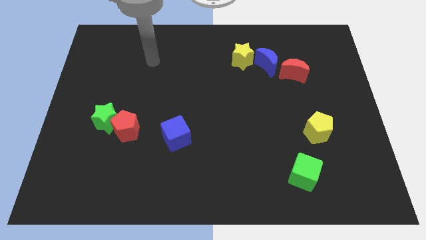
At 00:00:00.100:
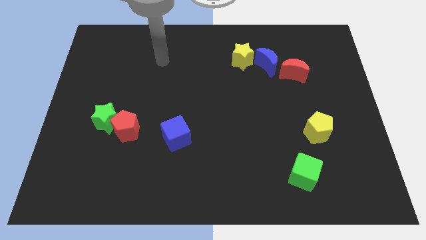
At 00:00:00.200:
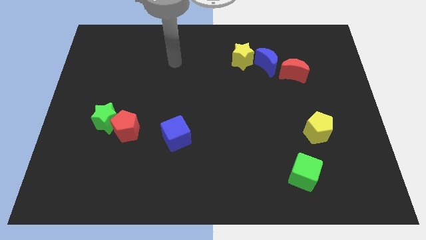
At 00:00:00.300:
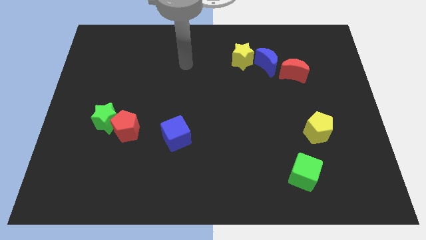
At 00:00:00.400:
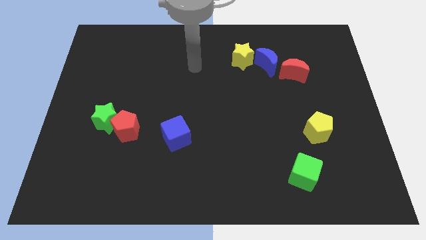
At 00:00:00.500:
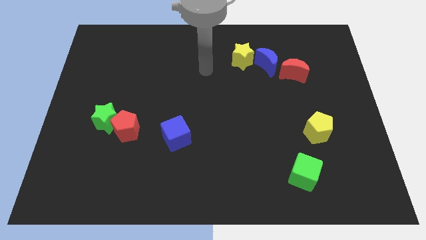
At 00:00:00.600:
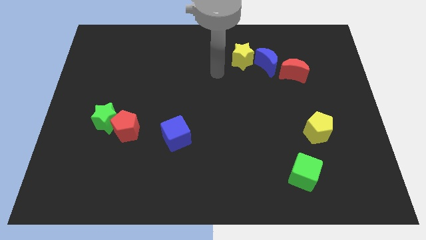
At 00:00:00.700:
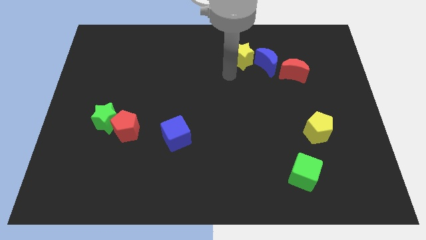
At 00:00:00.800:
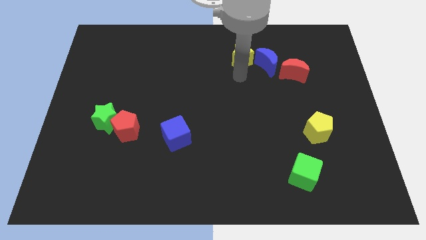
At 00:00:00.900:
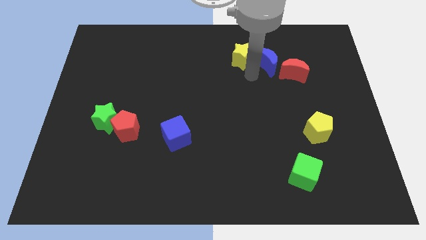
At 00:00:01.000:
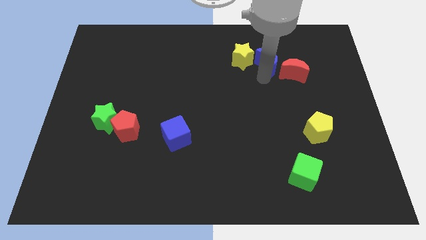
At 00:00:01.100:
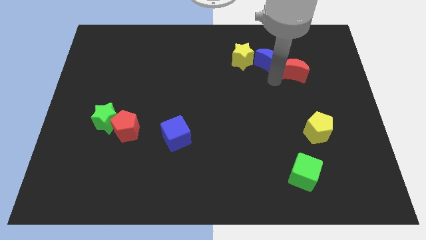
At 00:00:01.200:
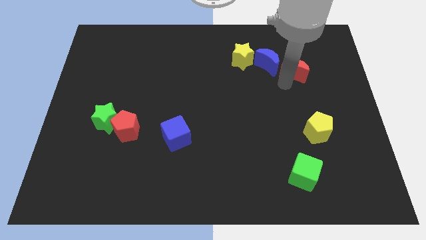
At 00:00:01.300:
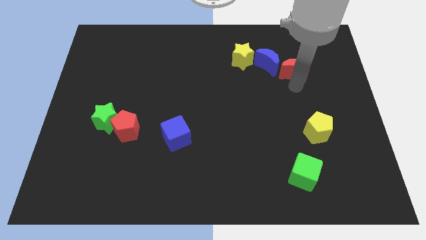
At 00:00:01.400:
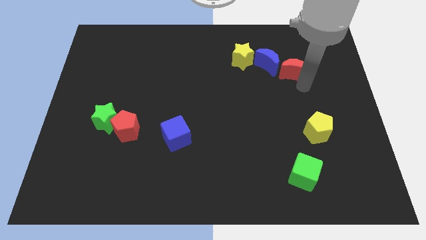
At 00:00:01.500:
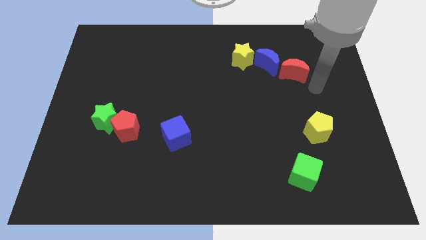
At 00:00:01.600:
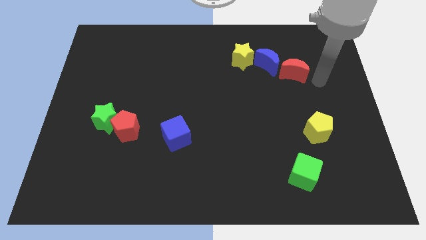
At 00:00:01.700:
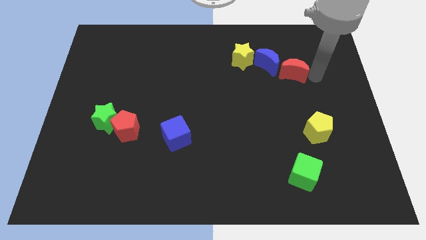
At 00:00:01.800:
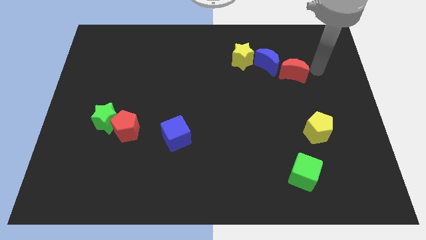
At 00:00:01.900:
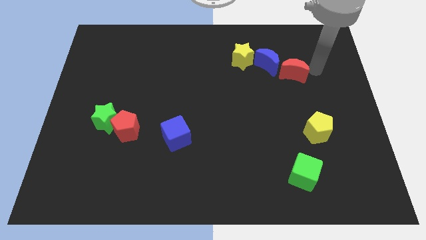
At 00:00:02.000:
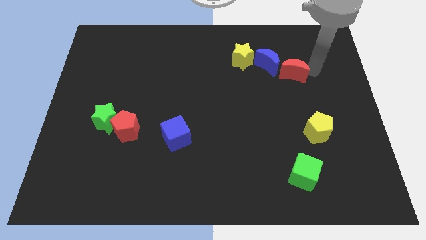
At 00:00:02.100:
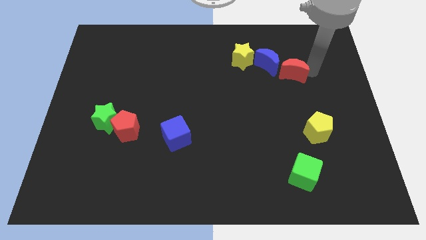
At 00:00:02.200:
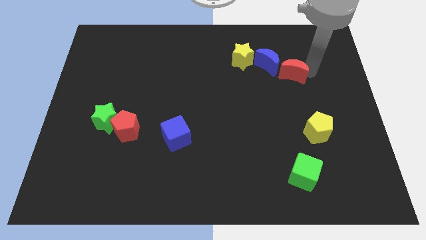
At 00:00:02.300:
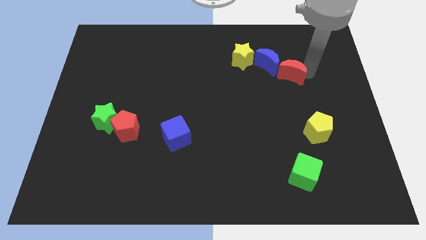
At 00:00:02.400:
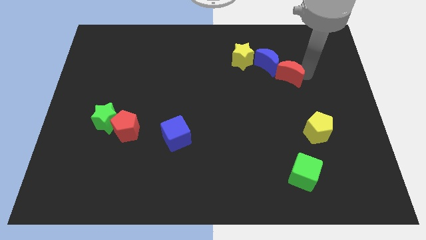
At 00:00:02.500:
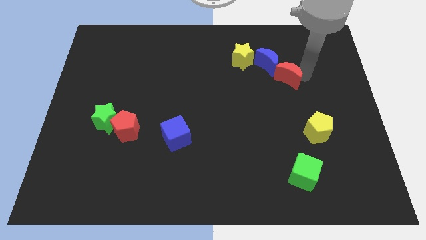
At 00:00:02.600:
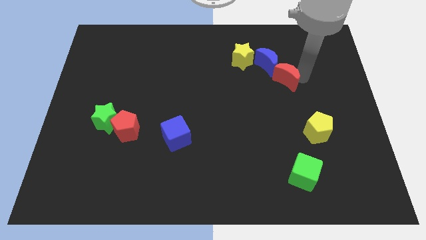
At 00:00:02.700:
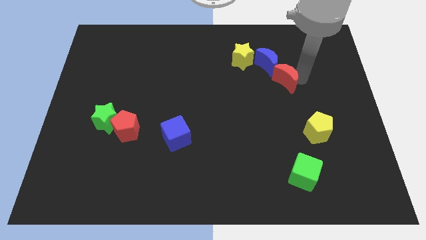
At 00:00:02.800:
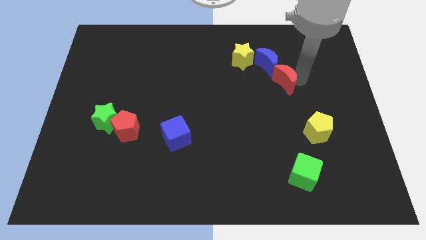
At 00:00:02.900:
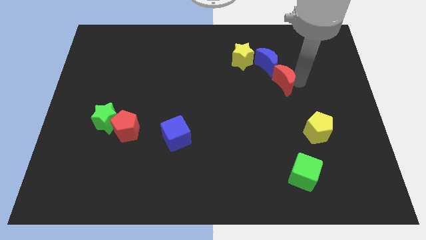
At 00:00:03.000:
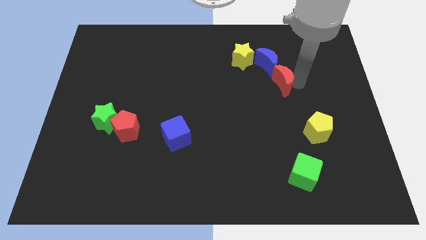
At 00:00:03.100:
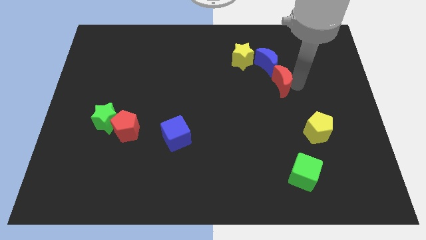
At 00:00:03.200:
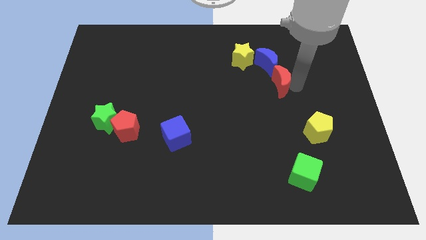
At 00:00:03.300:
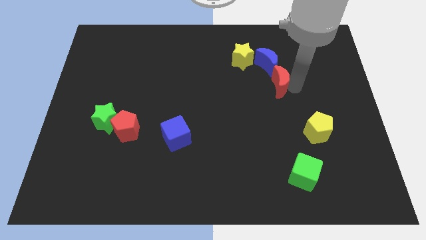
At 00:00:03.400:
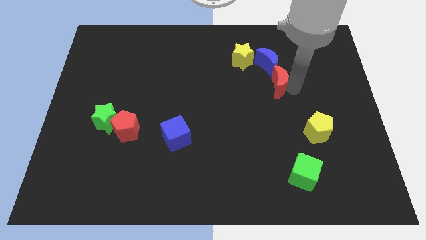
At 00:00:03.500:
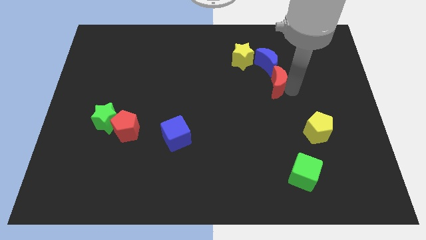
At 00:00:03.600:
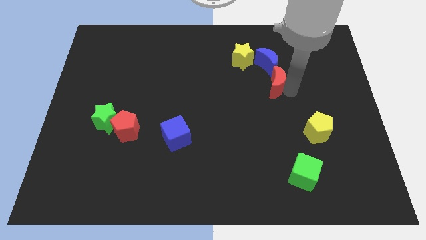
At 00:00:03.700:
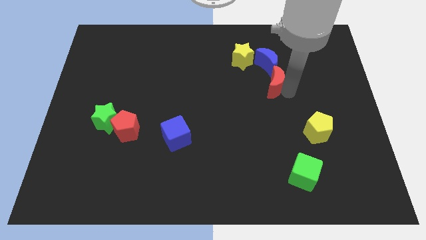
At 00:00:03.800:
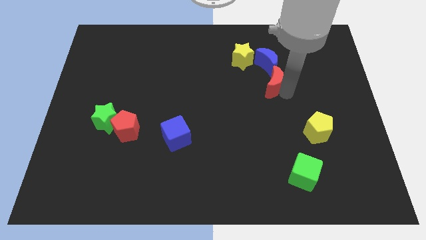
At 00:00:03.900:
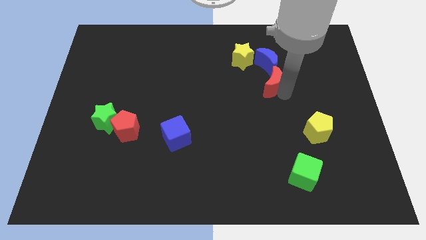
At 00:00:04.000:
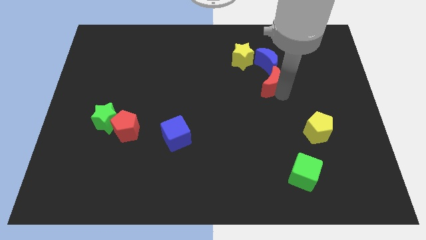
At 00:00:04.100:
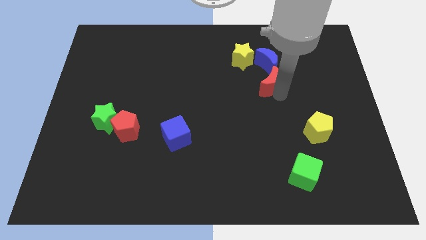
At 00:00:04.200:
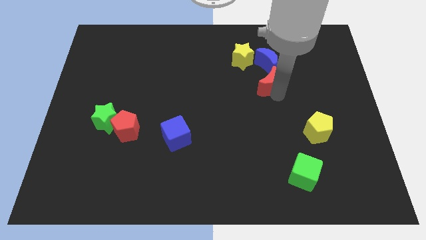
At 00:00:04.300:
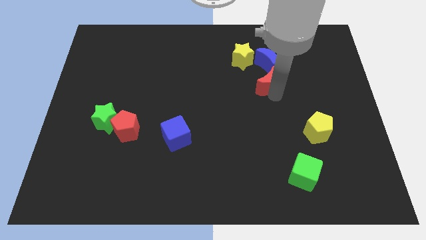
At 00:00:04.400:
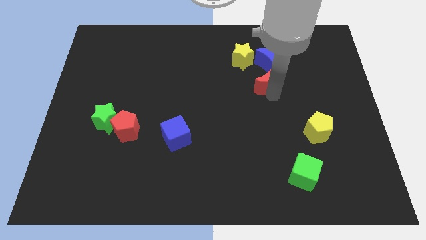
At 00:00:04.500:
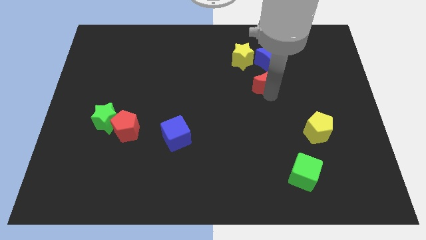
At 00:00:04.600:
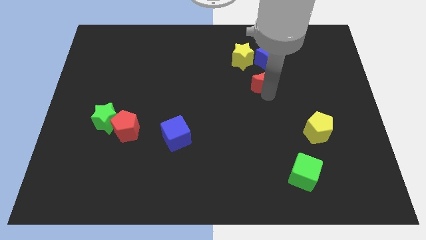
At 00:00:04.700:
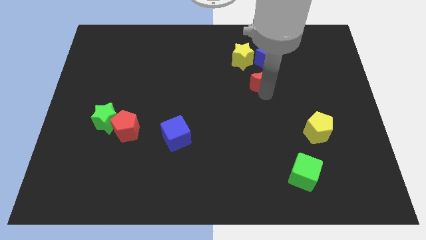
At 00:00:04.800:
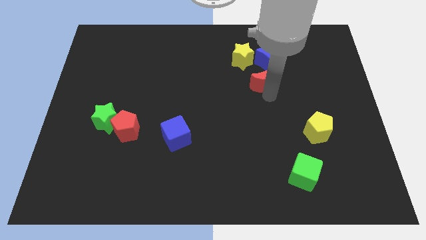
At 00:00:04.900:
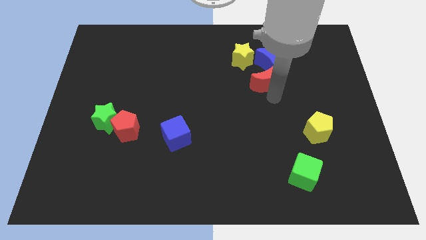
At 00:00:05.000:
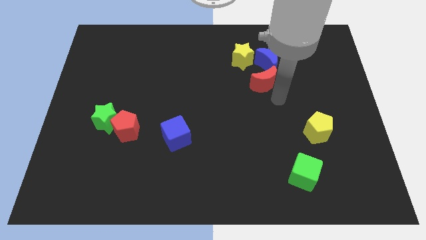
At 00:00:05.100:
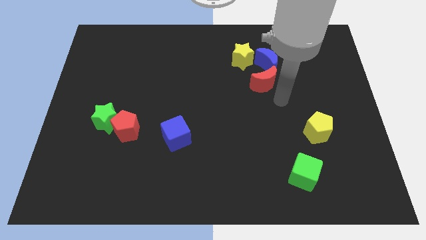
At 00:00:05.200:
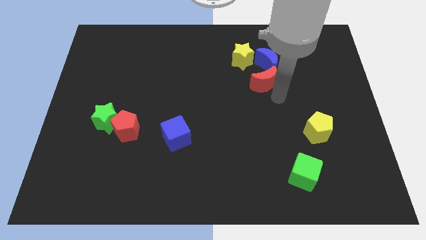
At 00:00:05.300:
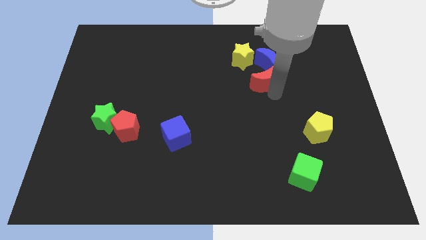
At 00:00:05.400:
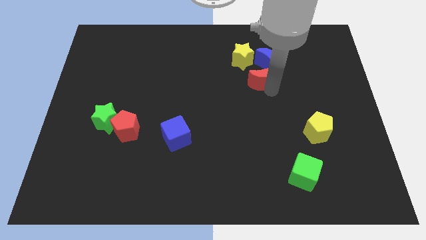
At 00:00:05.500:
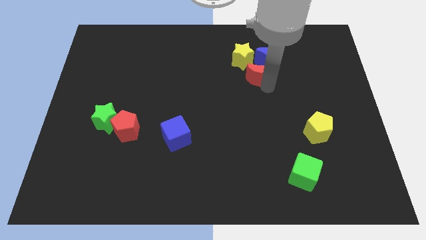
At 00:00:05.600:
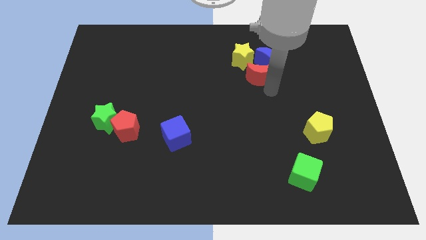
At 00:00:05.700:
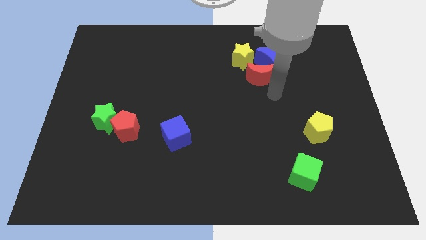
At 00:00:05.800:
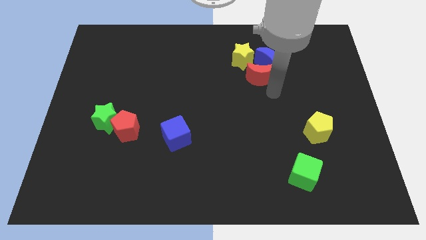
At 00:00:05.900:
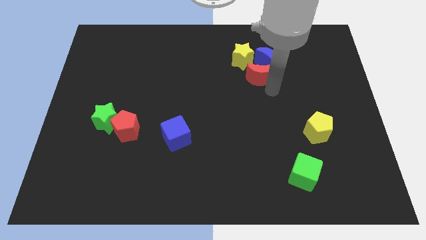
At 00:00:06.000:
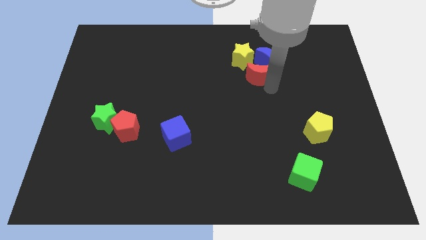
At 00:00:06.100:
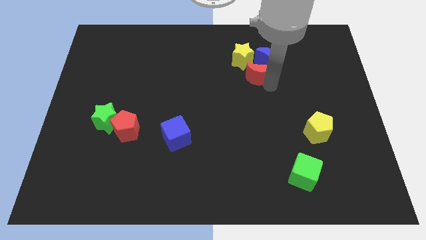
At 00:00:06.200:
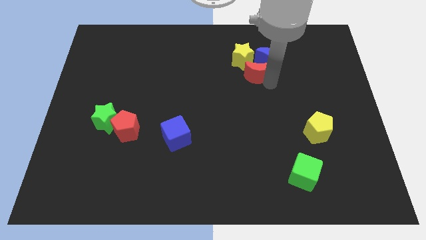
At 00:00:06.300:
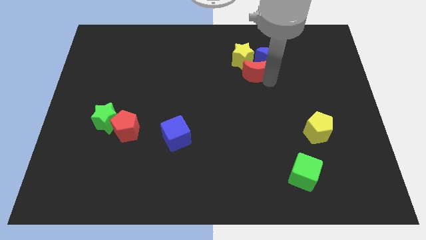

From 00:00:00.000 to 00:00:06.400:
push the red moon close to the yellow star
